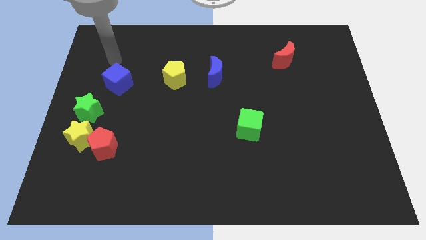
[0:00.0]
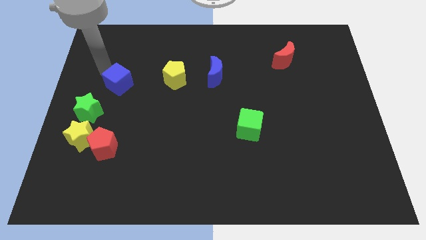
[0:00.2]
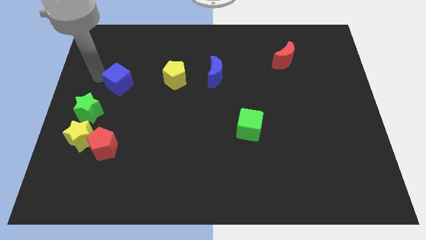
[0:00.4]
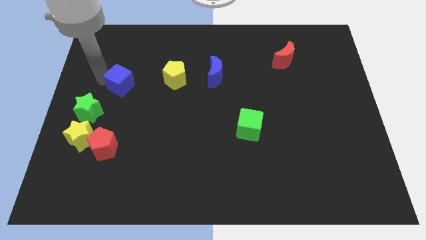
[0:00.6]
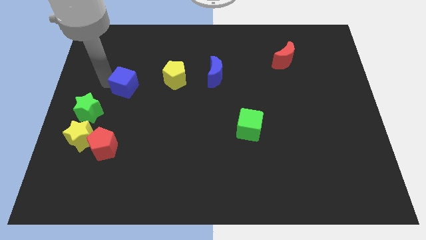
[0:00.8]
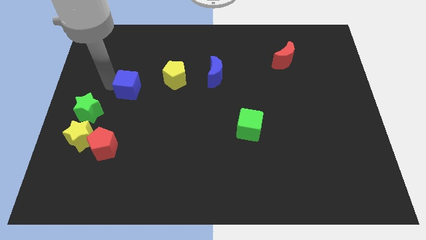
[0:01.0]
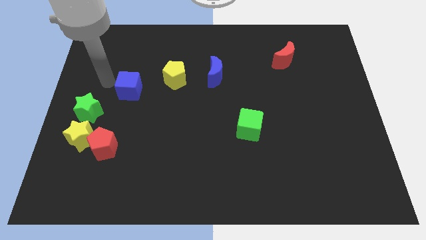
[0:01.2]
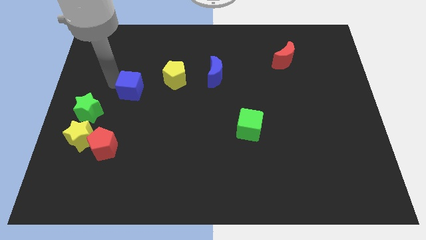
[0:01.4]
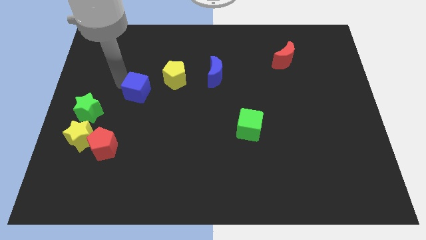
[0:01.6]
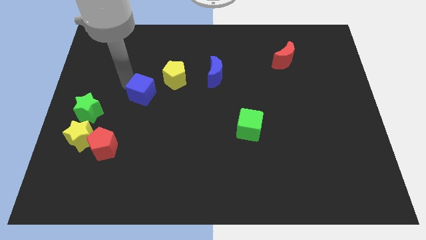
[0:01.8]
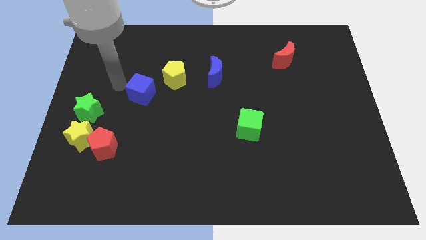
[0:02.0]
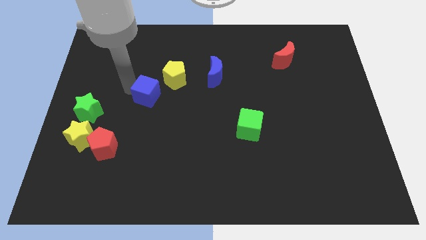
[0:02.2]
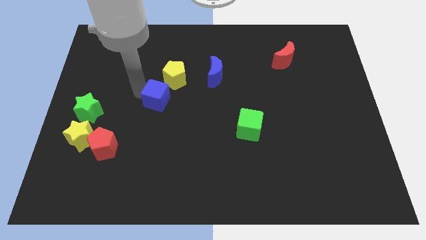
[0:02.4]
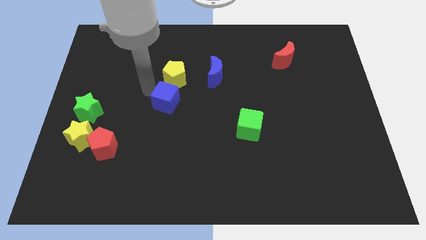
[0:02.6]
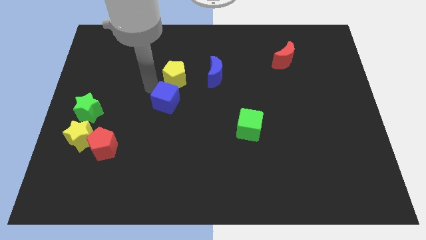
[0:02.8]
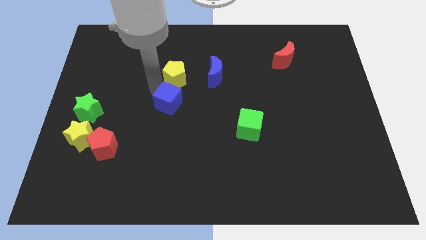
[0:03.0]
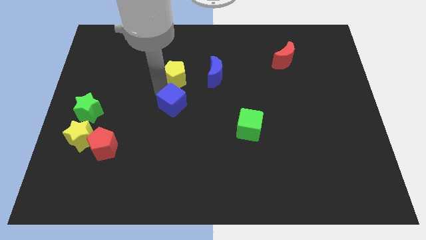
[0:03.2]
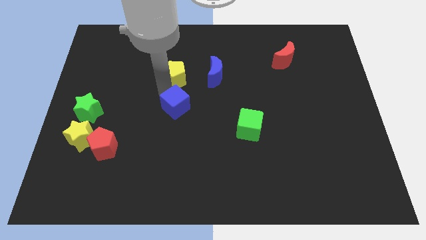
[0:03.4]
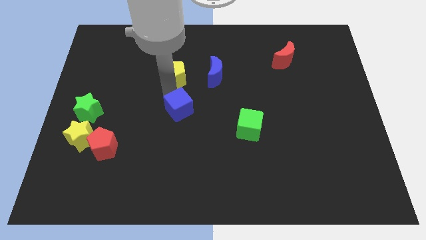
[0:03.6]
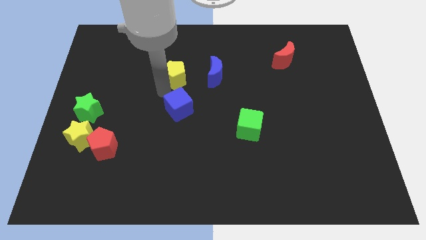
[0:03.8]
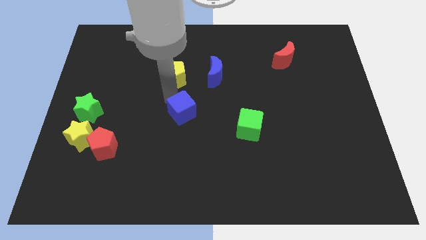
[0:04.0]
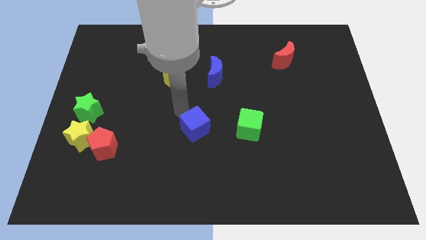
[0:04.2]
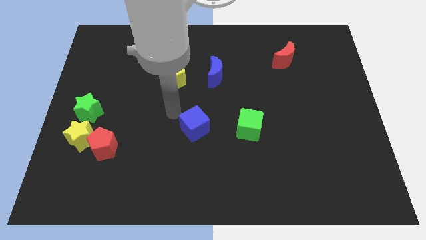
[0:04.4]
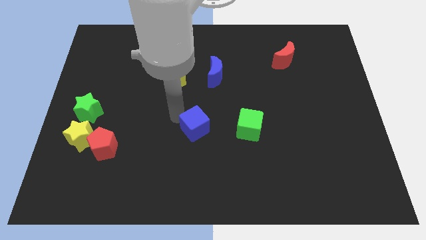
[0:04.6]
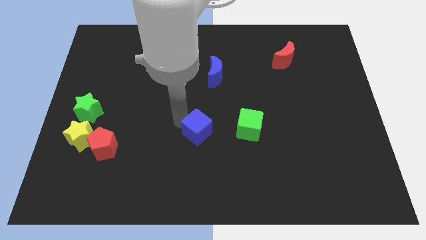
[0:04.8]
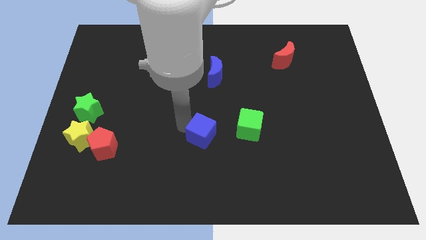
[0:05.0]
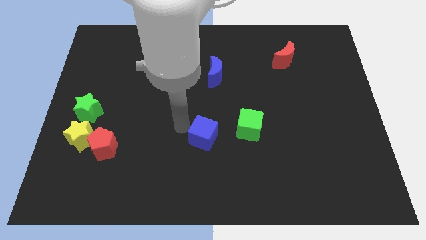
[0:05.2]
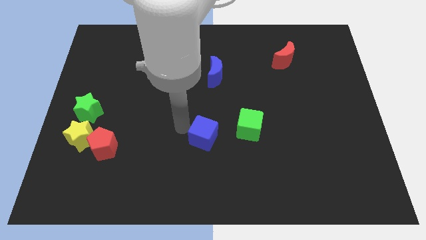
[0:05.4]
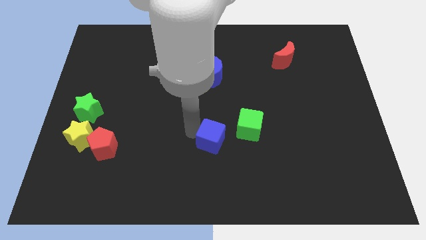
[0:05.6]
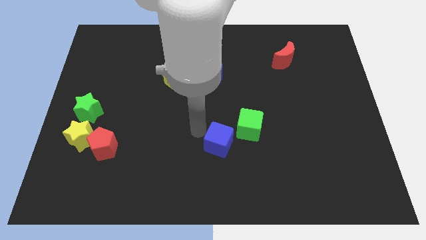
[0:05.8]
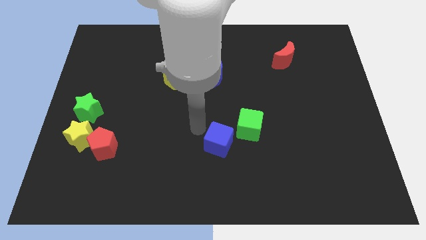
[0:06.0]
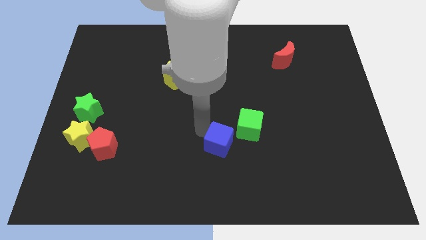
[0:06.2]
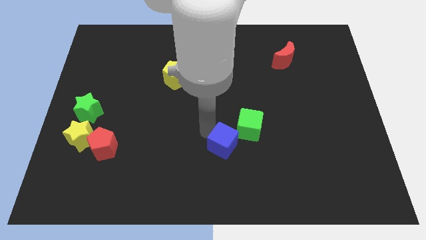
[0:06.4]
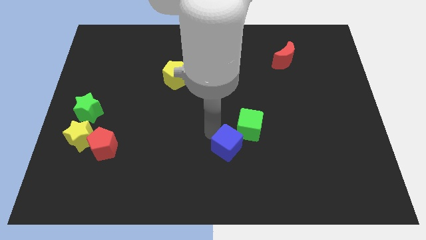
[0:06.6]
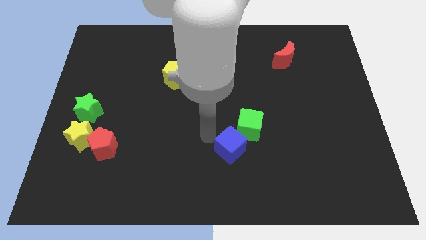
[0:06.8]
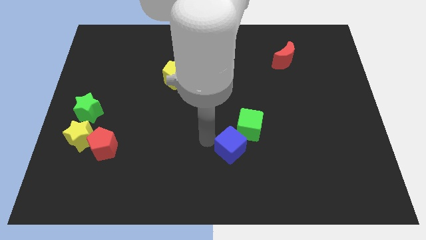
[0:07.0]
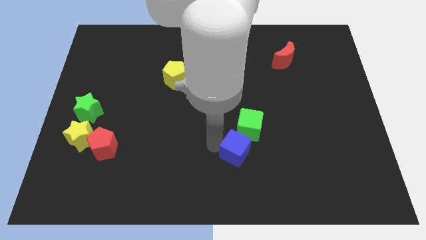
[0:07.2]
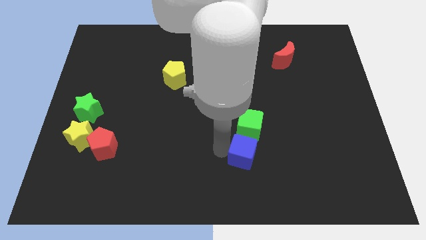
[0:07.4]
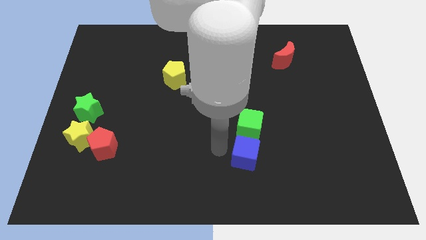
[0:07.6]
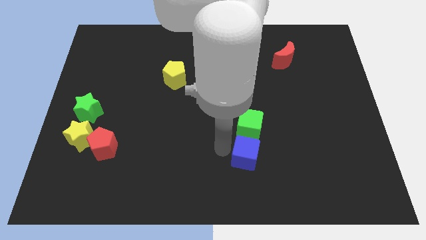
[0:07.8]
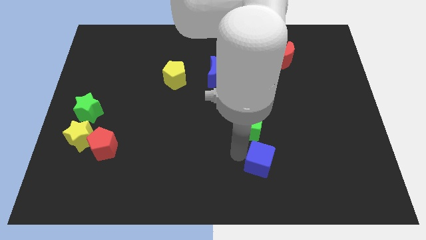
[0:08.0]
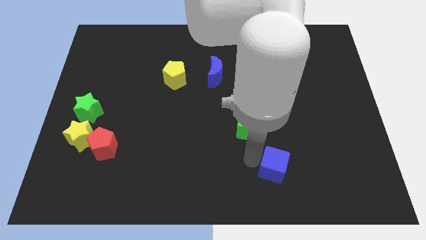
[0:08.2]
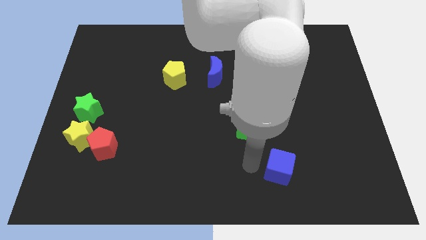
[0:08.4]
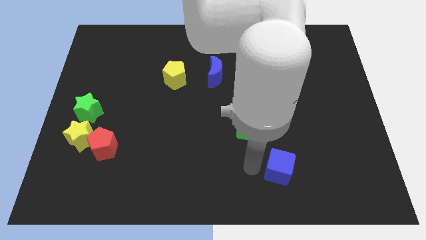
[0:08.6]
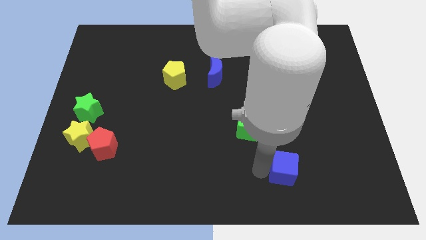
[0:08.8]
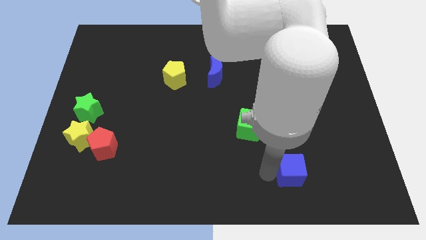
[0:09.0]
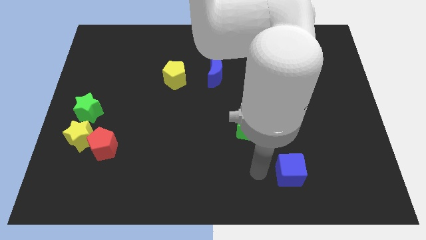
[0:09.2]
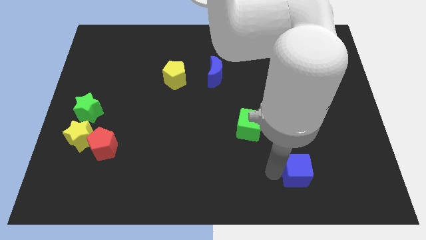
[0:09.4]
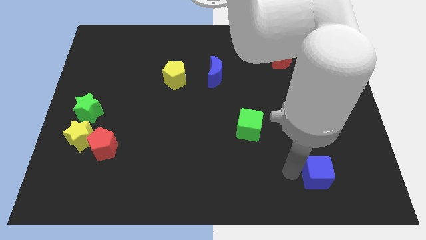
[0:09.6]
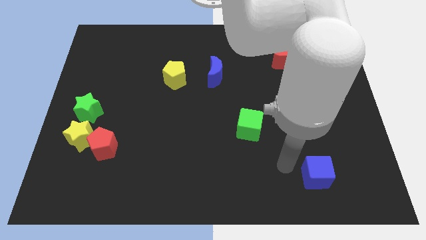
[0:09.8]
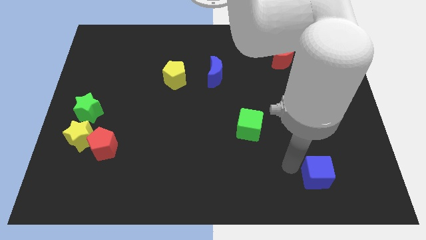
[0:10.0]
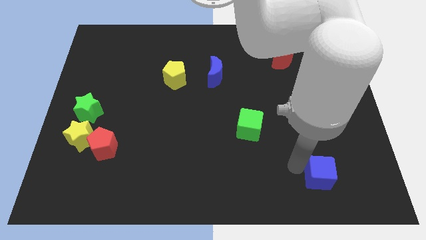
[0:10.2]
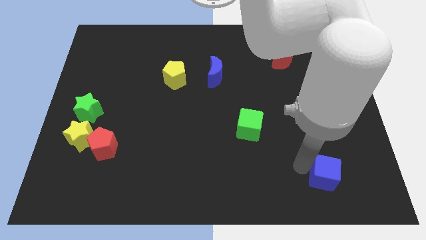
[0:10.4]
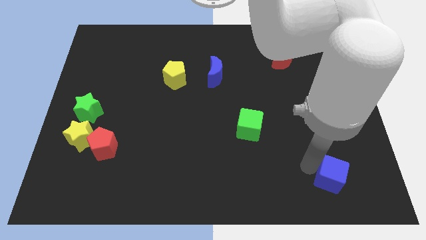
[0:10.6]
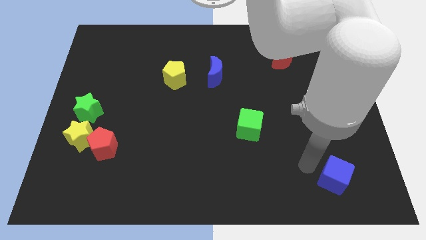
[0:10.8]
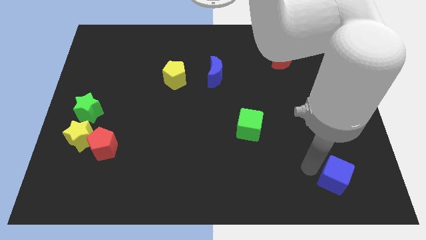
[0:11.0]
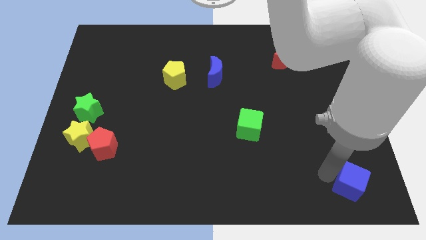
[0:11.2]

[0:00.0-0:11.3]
move the blue cube to the lower right corner
